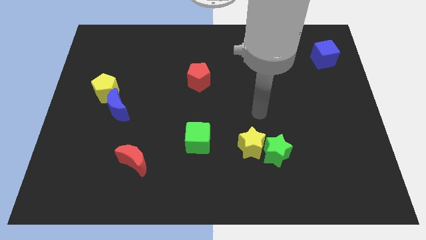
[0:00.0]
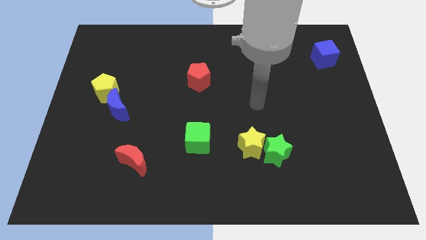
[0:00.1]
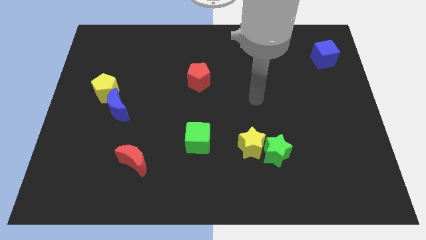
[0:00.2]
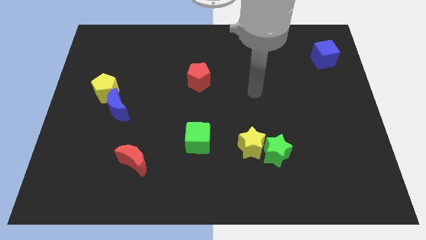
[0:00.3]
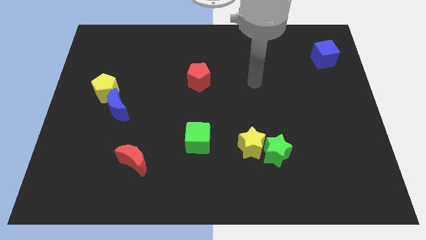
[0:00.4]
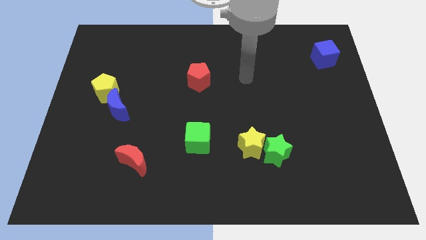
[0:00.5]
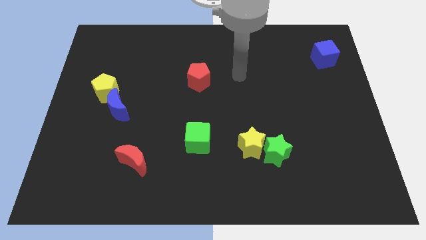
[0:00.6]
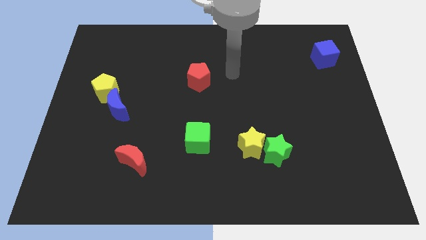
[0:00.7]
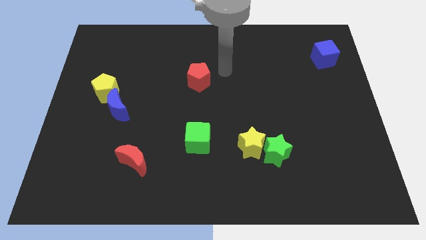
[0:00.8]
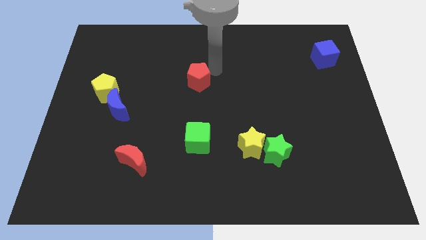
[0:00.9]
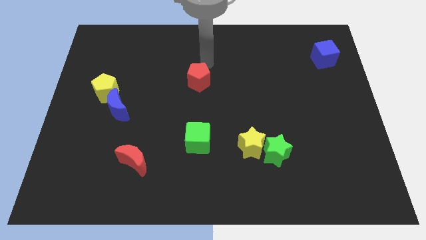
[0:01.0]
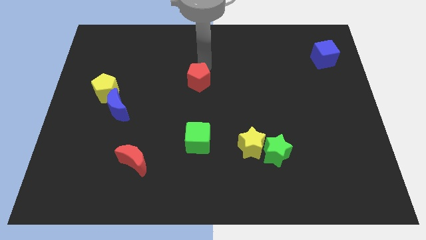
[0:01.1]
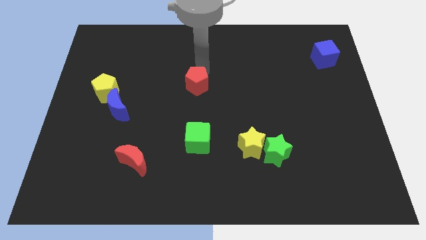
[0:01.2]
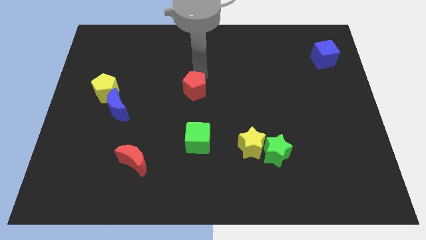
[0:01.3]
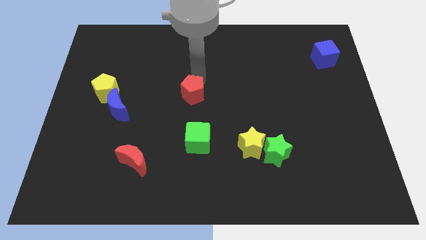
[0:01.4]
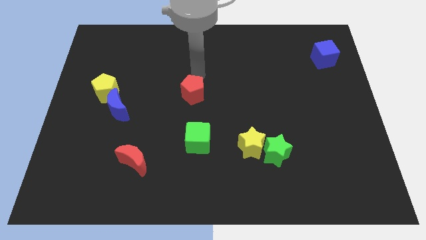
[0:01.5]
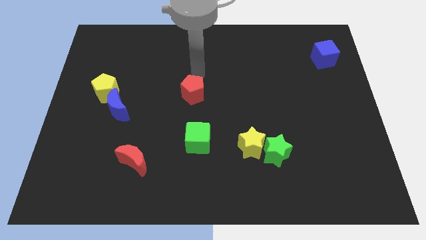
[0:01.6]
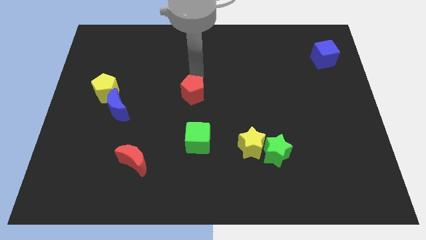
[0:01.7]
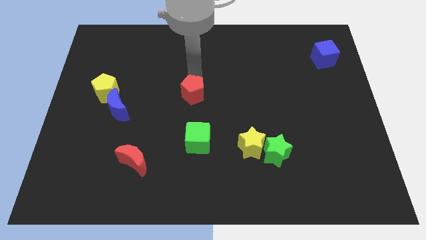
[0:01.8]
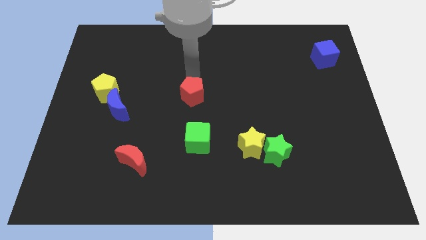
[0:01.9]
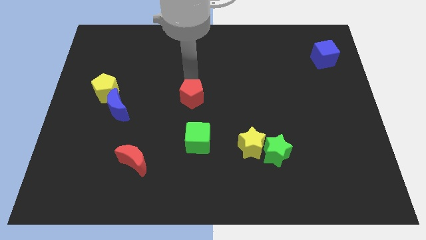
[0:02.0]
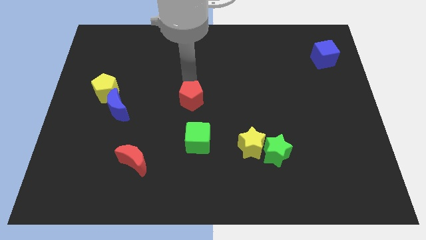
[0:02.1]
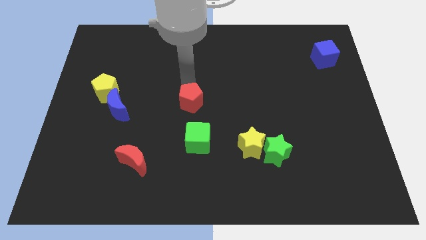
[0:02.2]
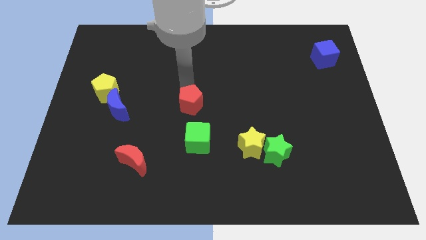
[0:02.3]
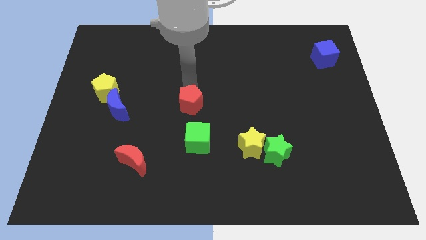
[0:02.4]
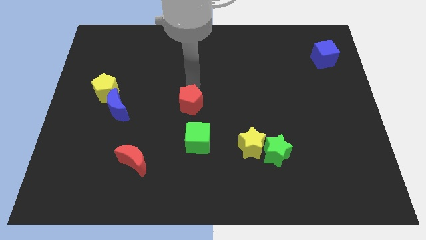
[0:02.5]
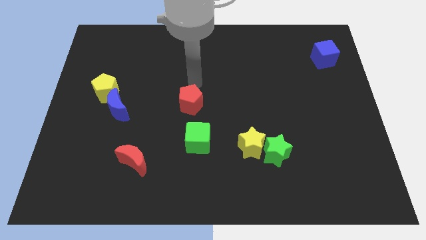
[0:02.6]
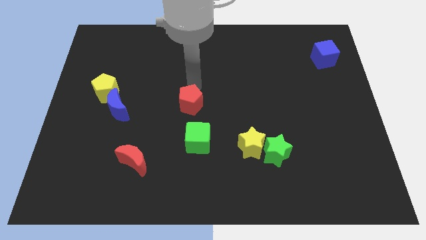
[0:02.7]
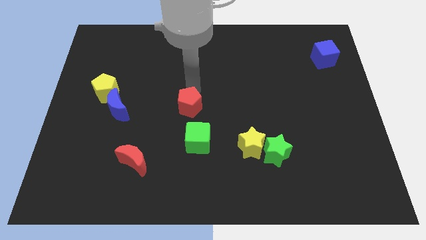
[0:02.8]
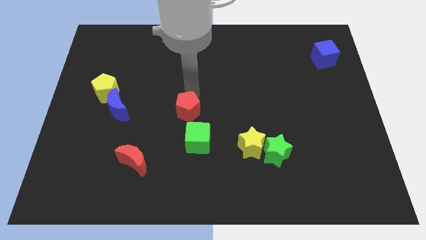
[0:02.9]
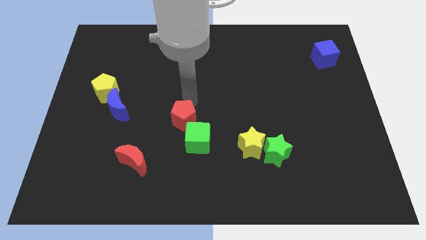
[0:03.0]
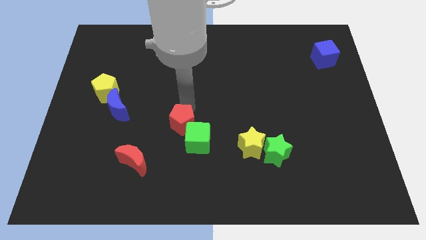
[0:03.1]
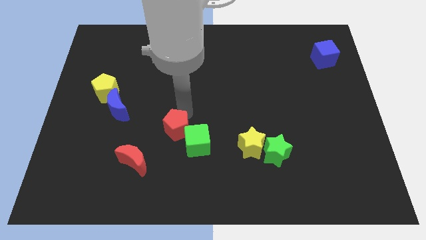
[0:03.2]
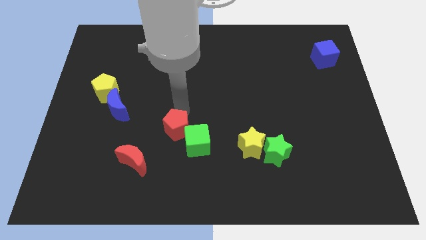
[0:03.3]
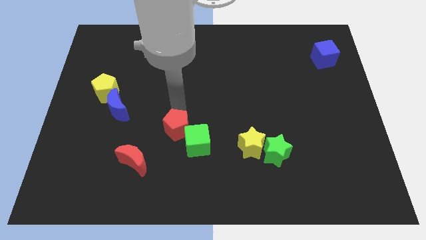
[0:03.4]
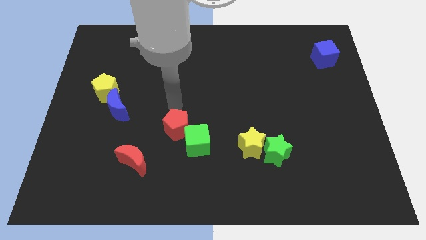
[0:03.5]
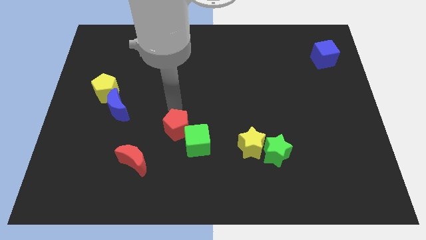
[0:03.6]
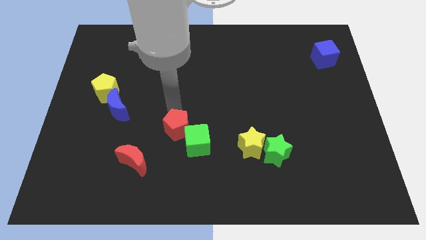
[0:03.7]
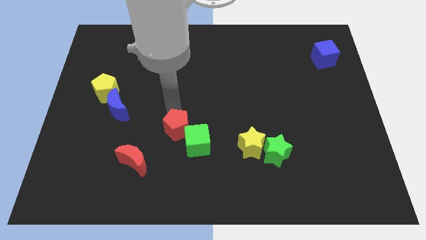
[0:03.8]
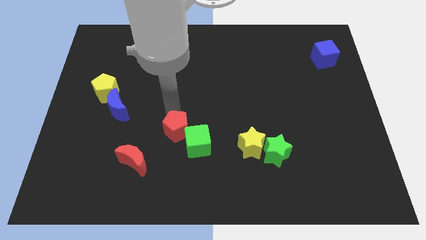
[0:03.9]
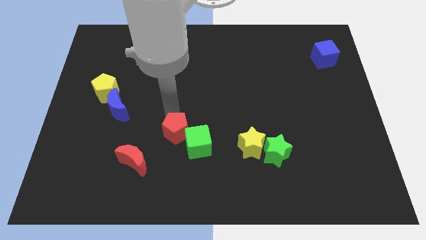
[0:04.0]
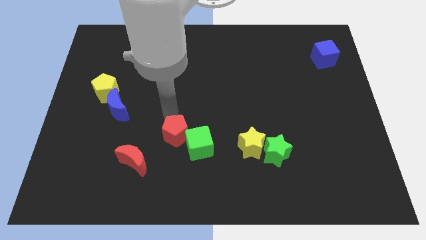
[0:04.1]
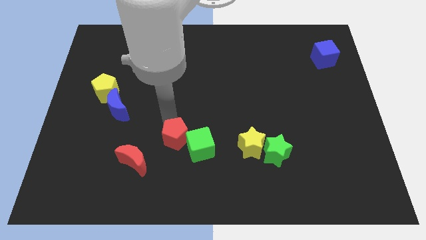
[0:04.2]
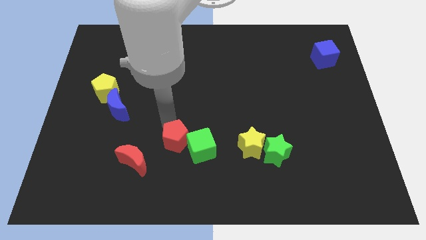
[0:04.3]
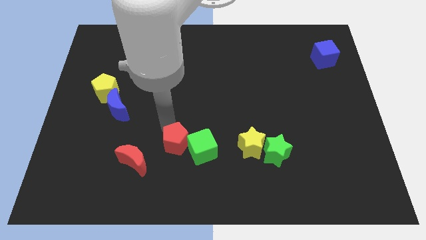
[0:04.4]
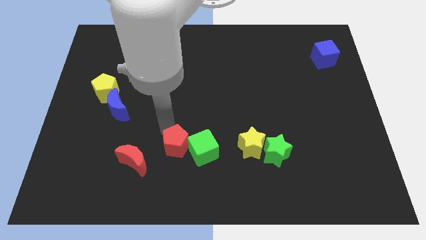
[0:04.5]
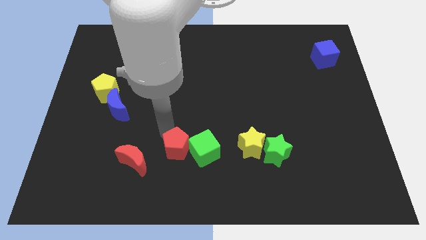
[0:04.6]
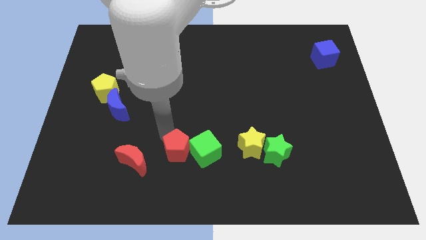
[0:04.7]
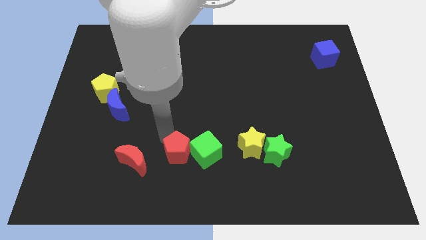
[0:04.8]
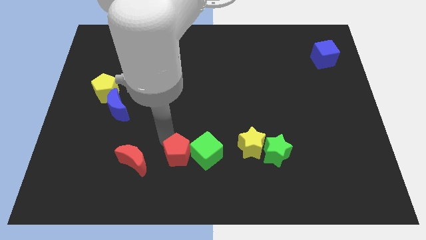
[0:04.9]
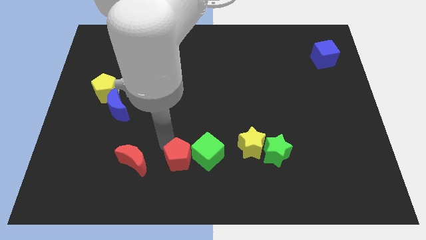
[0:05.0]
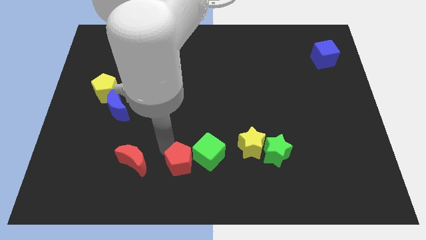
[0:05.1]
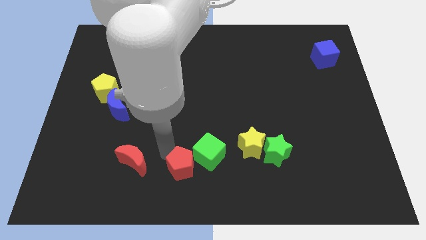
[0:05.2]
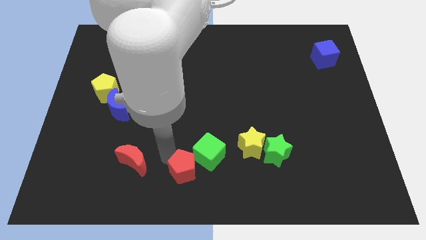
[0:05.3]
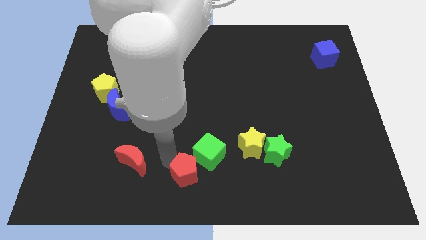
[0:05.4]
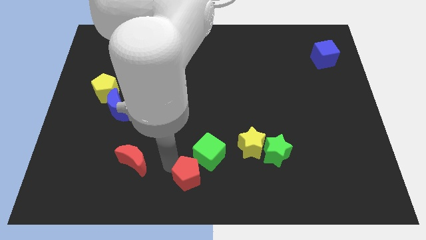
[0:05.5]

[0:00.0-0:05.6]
move the red pentagon to the bottom of the green cube

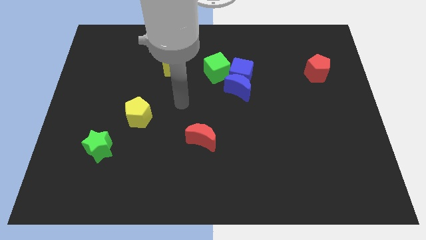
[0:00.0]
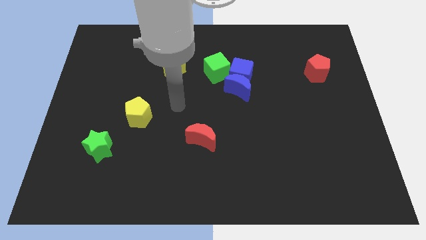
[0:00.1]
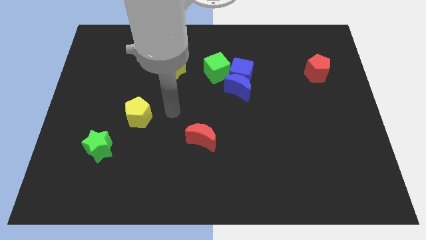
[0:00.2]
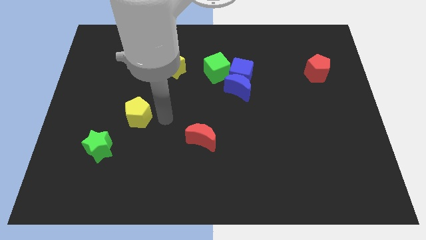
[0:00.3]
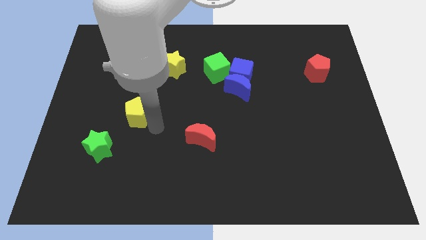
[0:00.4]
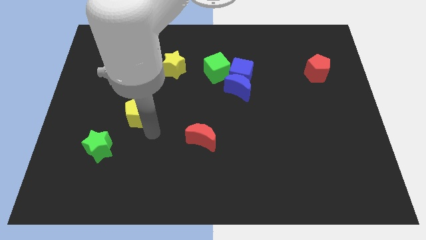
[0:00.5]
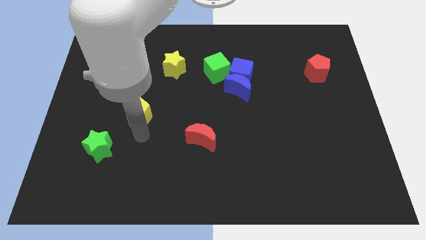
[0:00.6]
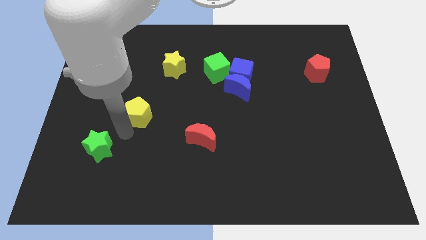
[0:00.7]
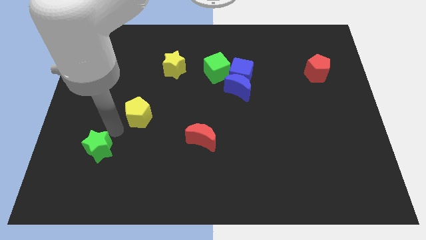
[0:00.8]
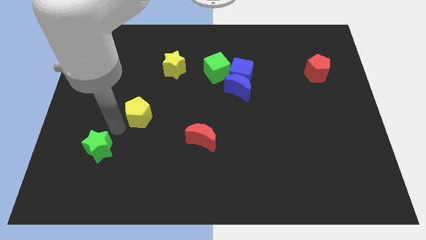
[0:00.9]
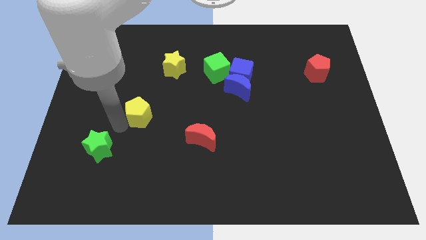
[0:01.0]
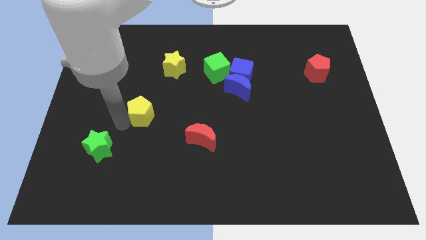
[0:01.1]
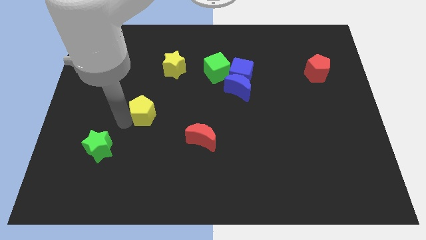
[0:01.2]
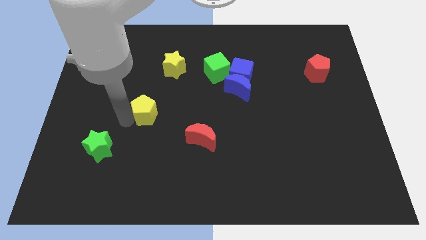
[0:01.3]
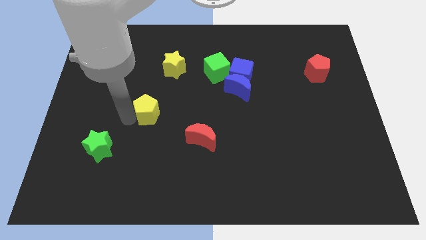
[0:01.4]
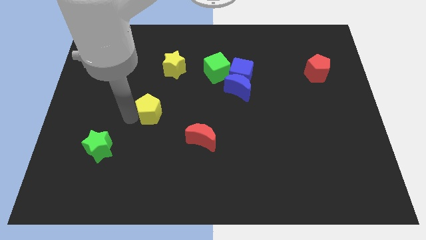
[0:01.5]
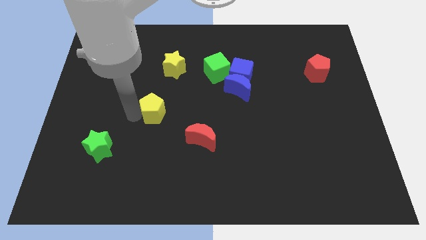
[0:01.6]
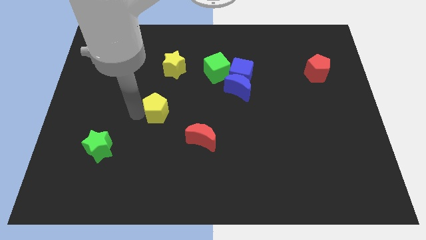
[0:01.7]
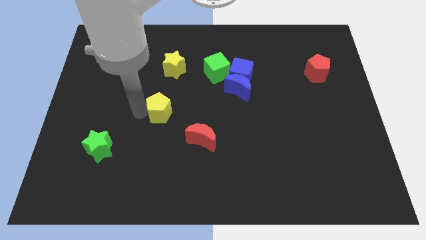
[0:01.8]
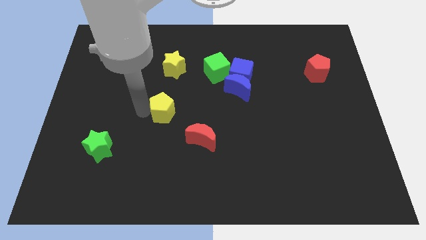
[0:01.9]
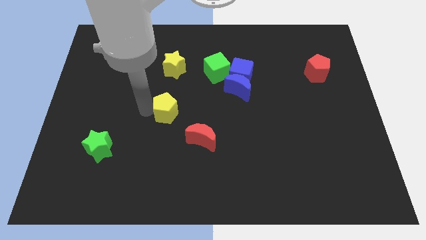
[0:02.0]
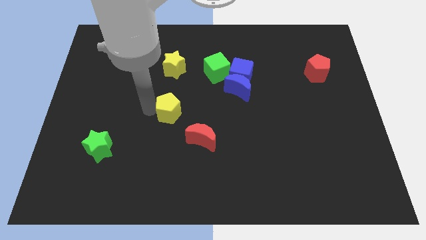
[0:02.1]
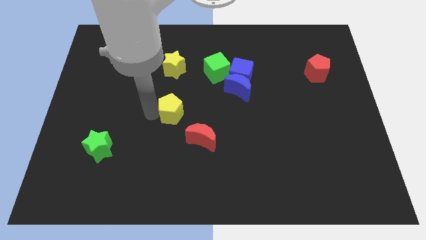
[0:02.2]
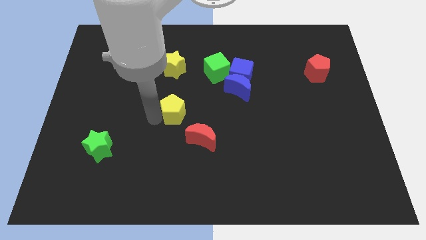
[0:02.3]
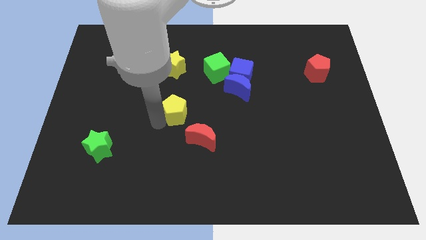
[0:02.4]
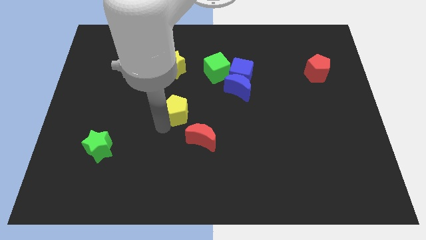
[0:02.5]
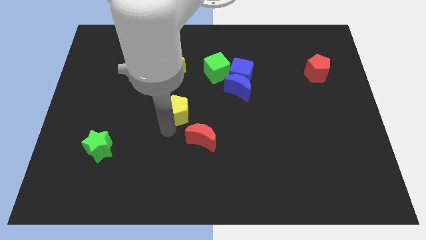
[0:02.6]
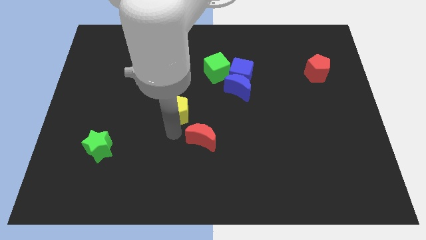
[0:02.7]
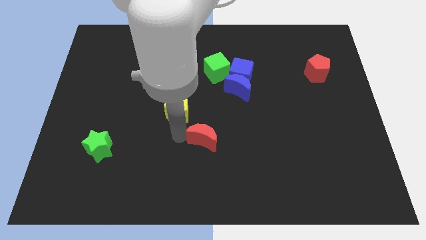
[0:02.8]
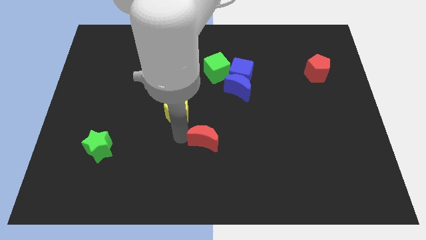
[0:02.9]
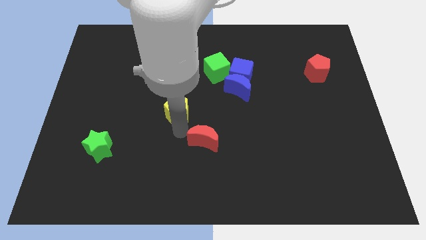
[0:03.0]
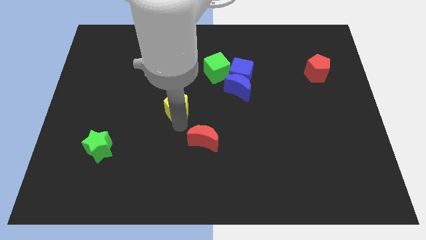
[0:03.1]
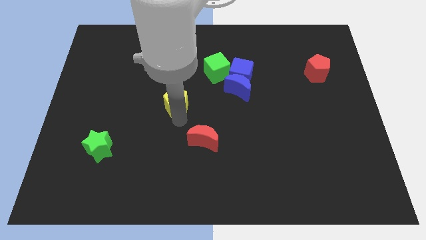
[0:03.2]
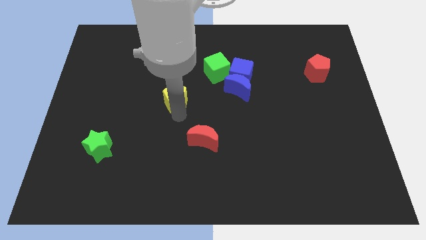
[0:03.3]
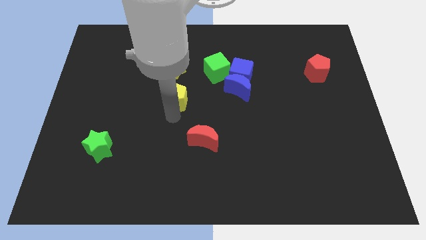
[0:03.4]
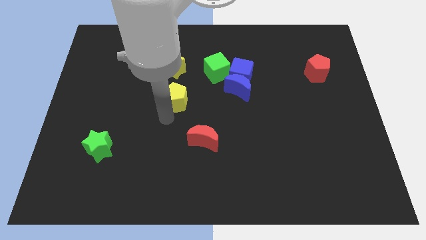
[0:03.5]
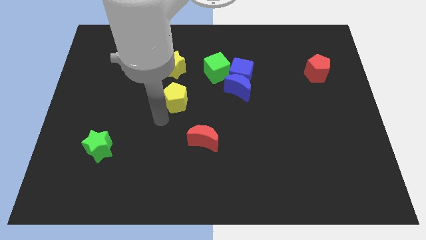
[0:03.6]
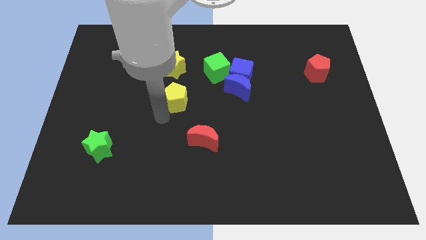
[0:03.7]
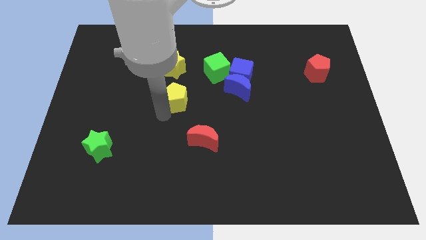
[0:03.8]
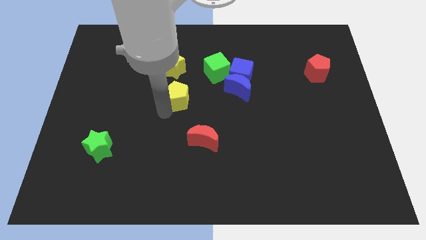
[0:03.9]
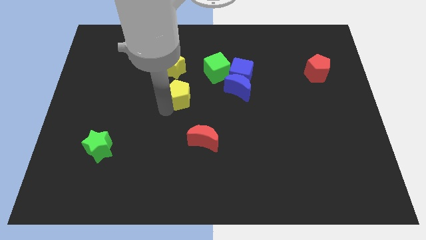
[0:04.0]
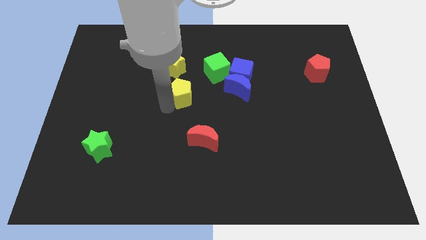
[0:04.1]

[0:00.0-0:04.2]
push the yellow pentagon to the bottom right side of the yellow star
